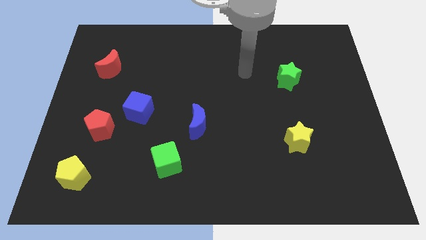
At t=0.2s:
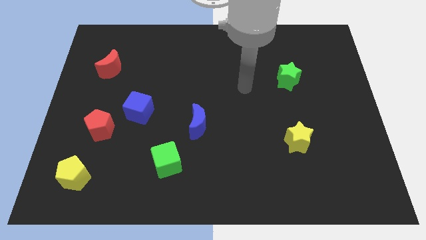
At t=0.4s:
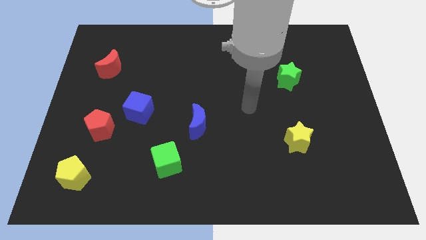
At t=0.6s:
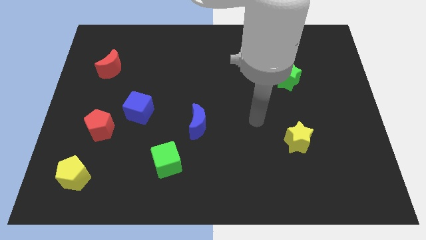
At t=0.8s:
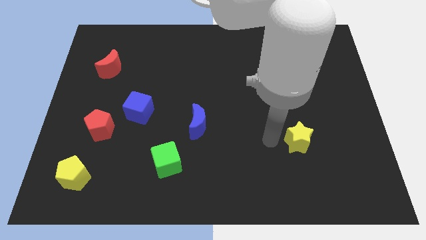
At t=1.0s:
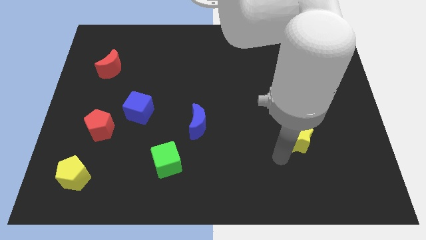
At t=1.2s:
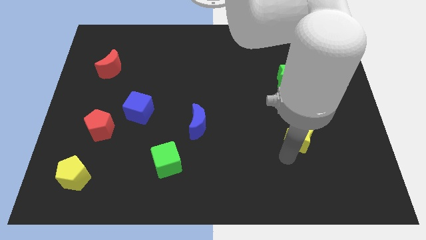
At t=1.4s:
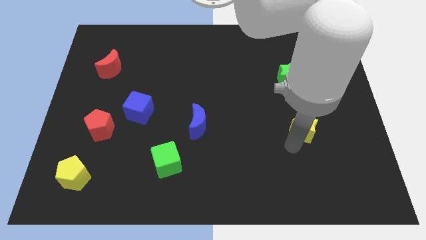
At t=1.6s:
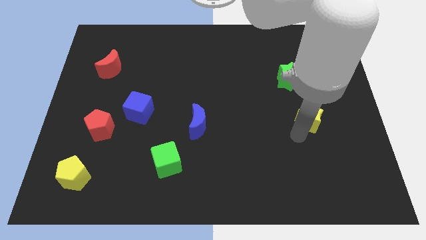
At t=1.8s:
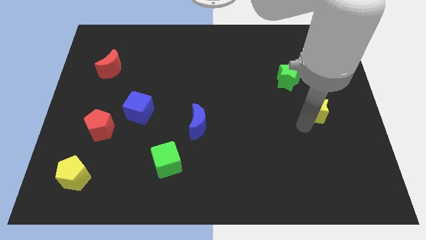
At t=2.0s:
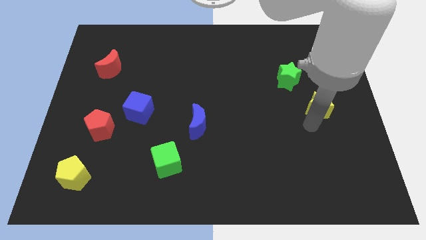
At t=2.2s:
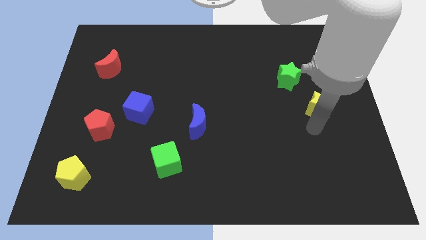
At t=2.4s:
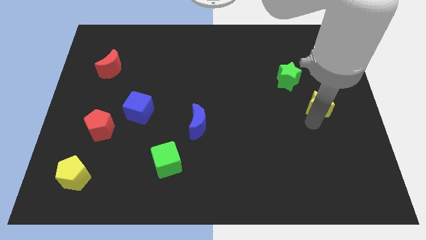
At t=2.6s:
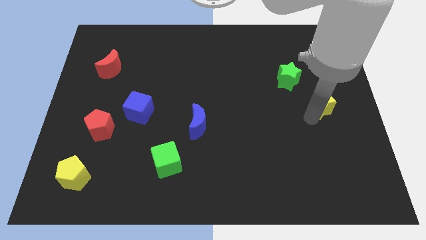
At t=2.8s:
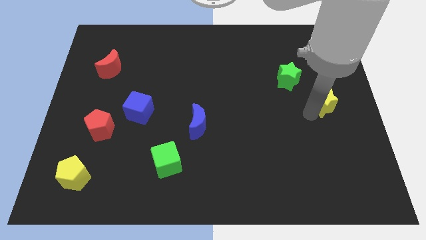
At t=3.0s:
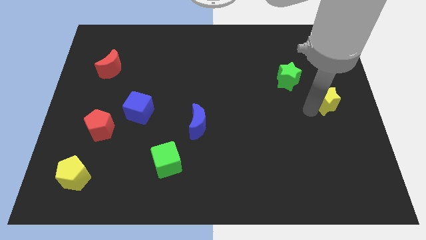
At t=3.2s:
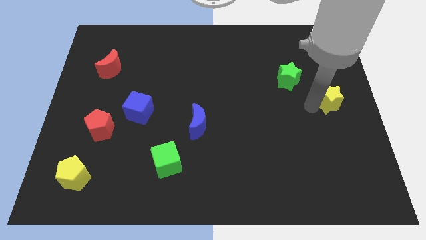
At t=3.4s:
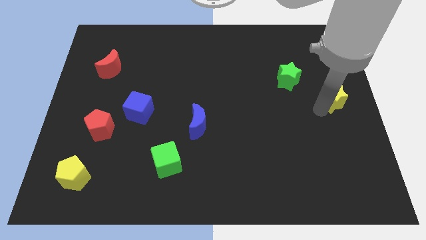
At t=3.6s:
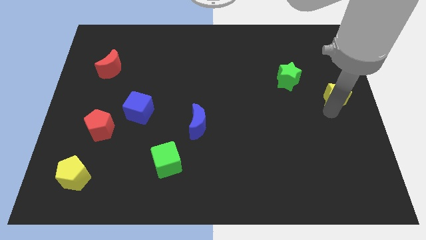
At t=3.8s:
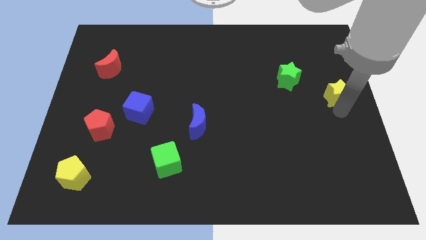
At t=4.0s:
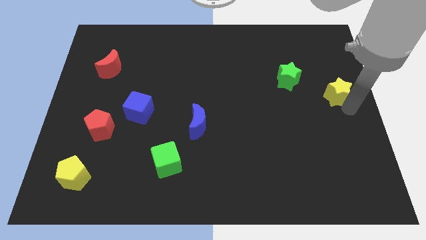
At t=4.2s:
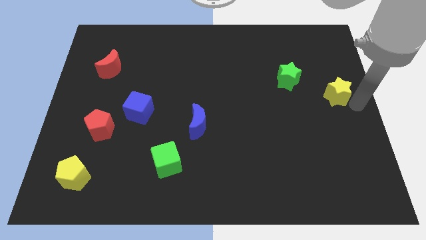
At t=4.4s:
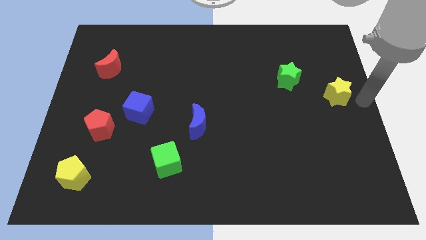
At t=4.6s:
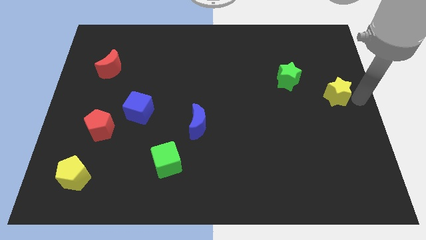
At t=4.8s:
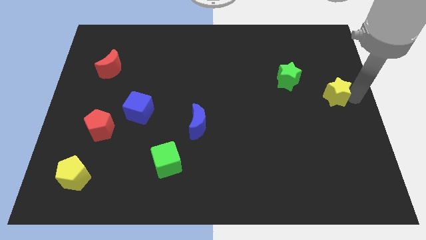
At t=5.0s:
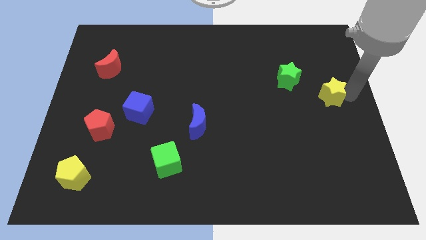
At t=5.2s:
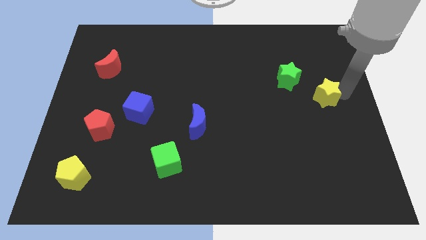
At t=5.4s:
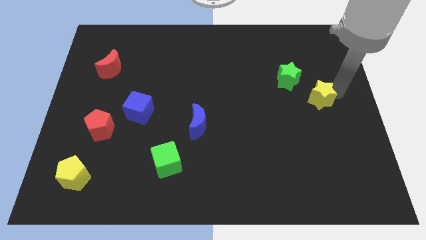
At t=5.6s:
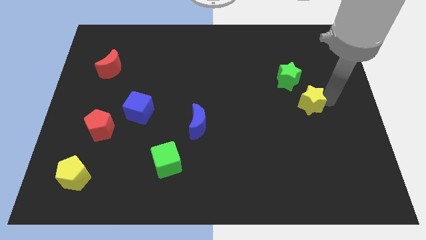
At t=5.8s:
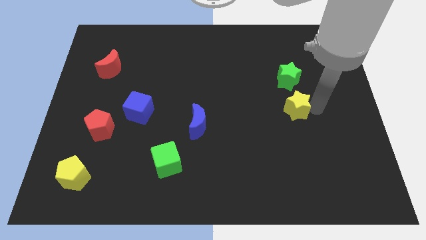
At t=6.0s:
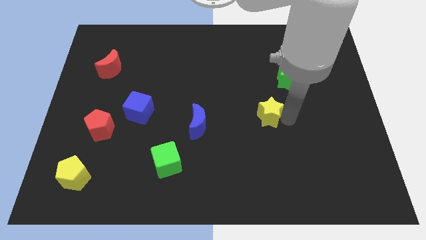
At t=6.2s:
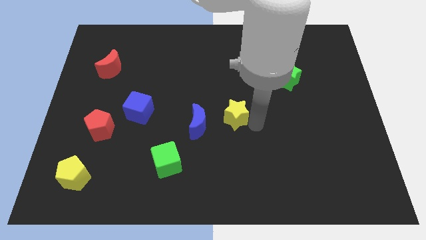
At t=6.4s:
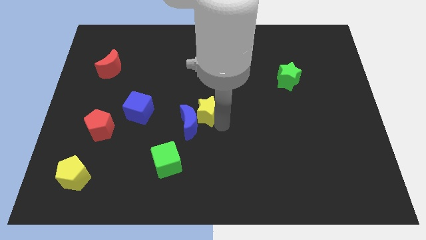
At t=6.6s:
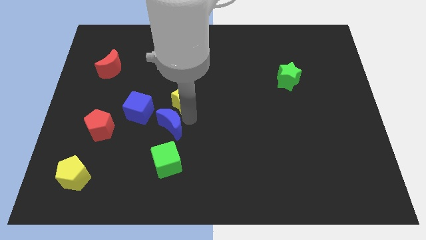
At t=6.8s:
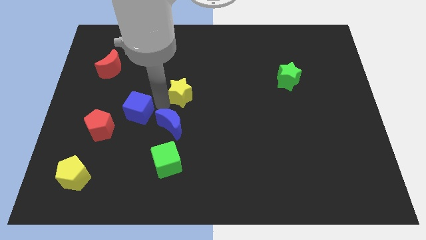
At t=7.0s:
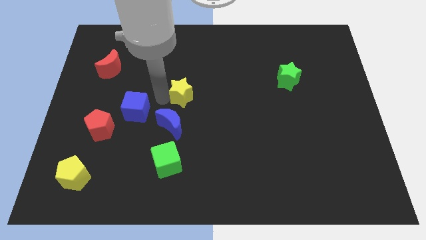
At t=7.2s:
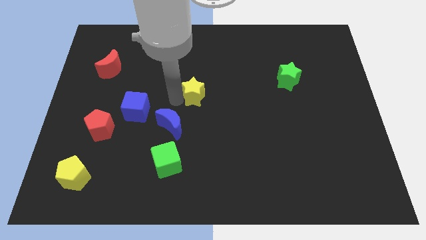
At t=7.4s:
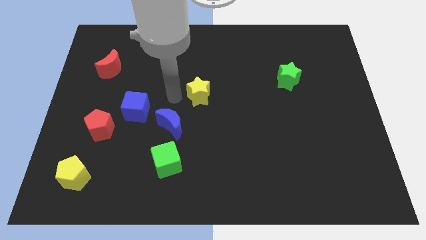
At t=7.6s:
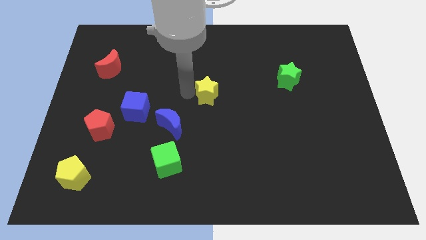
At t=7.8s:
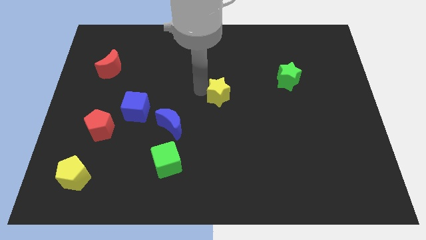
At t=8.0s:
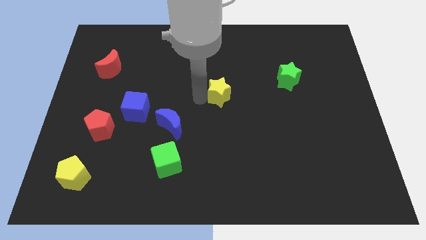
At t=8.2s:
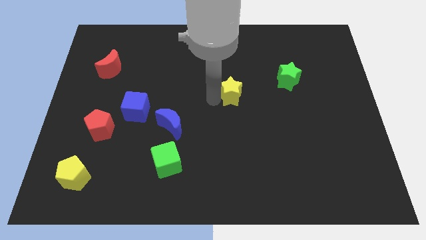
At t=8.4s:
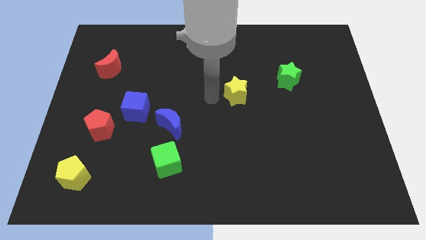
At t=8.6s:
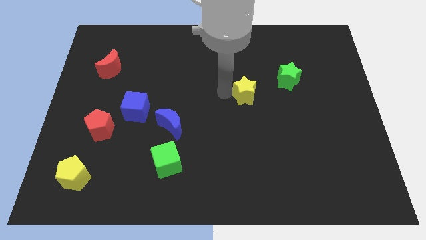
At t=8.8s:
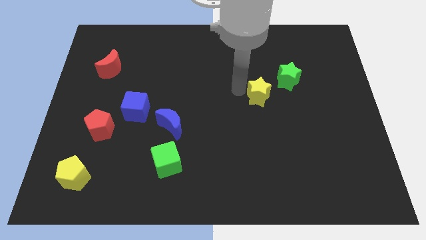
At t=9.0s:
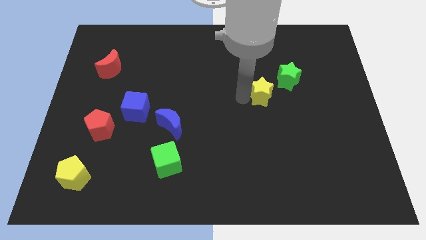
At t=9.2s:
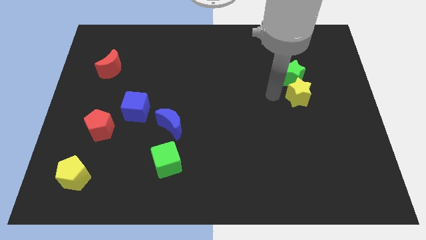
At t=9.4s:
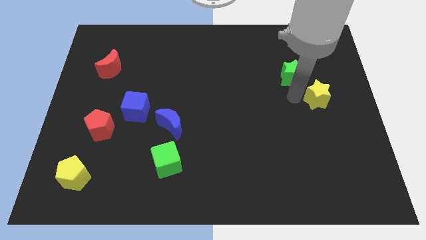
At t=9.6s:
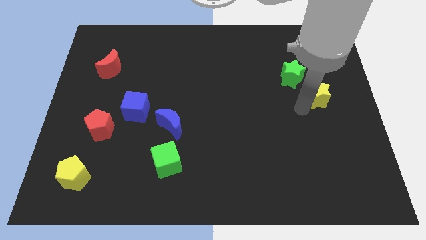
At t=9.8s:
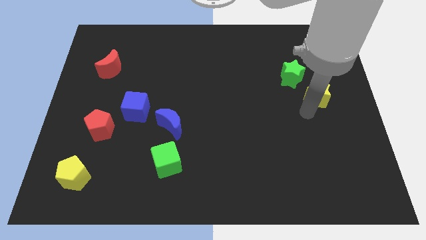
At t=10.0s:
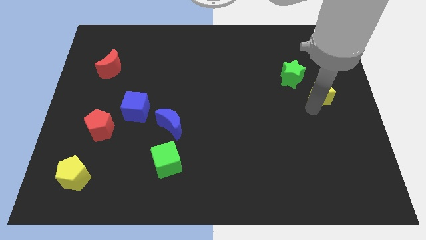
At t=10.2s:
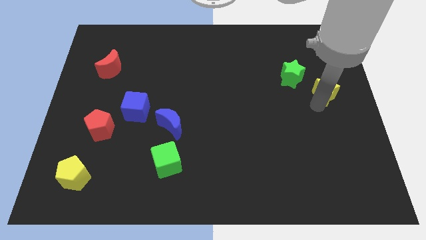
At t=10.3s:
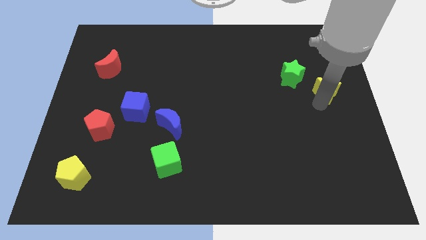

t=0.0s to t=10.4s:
push the yellow star right of the green star

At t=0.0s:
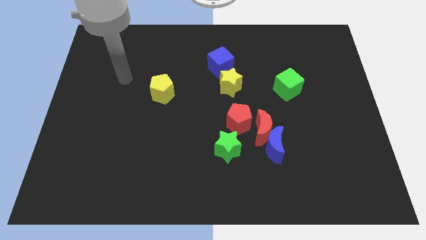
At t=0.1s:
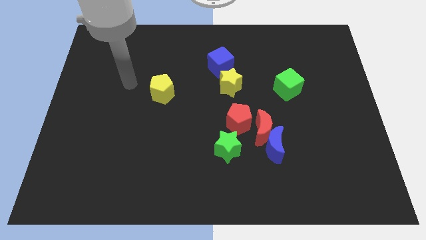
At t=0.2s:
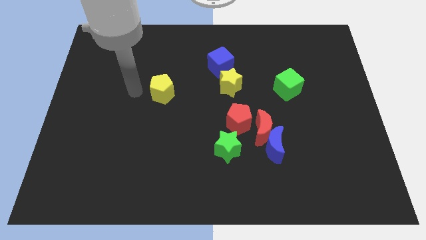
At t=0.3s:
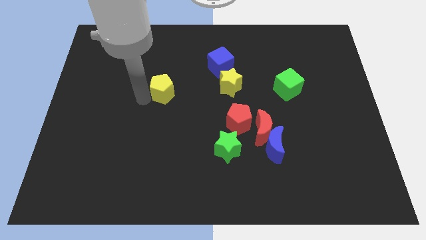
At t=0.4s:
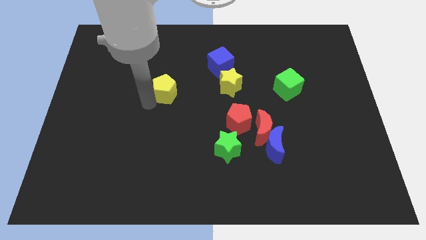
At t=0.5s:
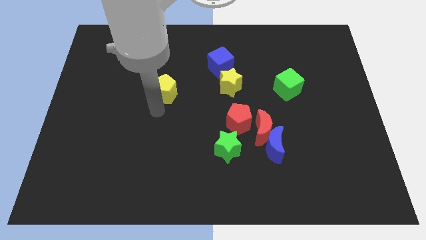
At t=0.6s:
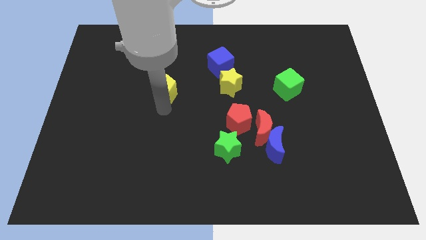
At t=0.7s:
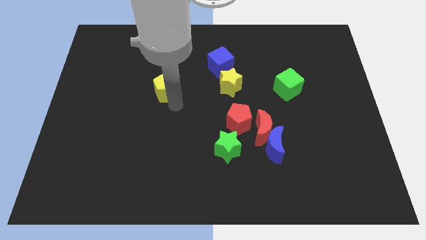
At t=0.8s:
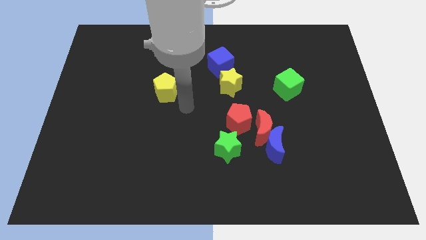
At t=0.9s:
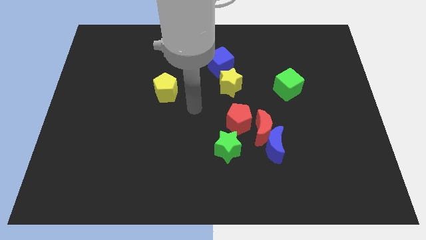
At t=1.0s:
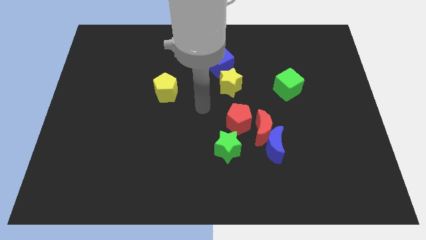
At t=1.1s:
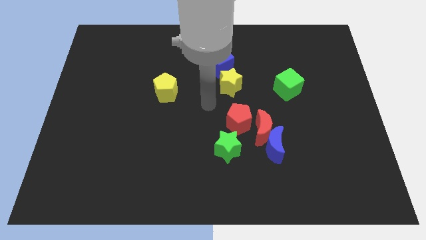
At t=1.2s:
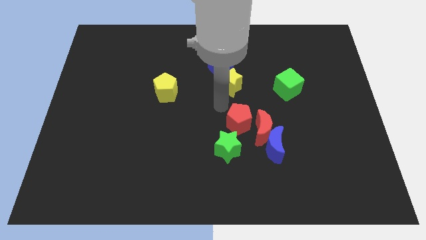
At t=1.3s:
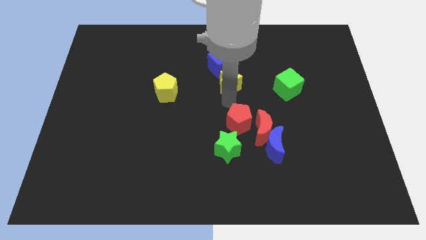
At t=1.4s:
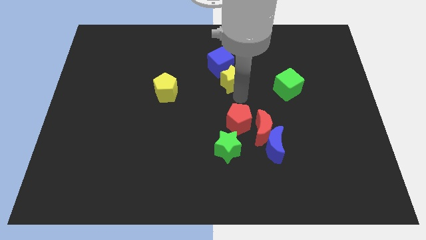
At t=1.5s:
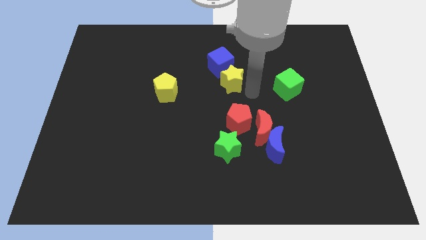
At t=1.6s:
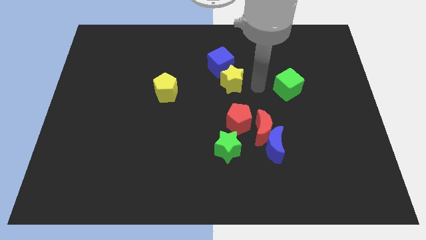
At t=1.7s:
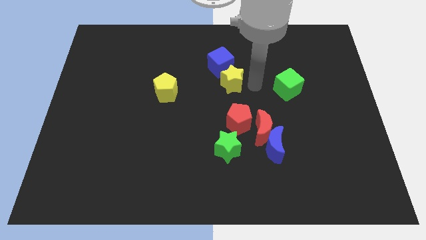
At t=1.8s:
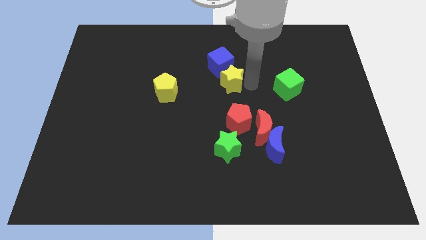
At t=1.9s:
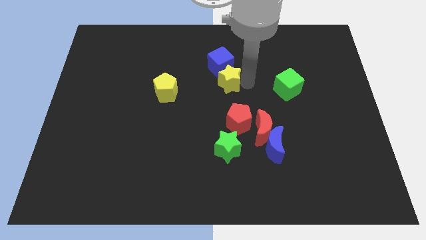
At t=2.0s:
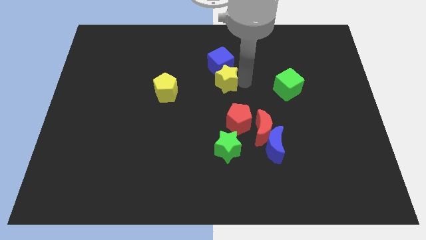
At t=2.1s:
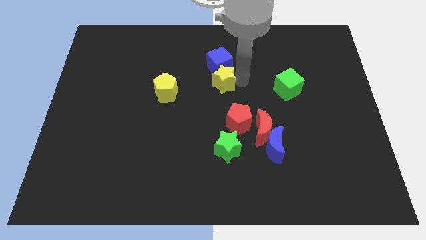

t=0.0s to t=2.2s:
push the yellow star to the bottom left side of the blue cube

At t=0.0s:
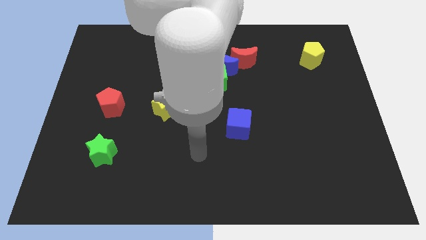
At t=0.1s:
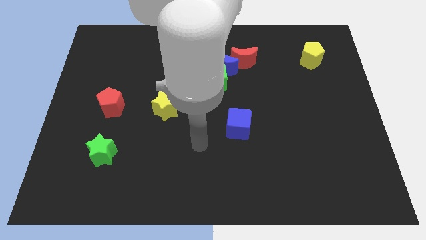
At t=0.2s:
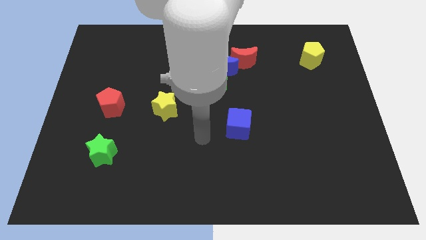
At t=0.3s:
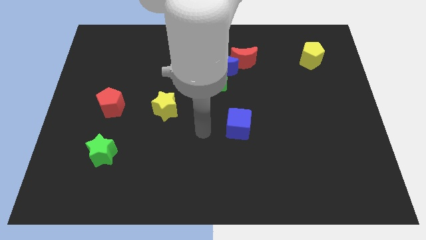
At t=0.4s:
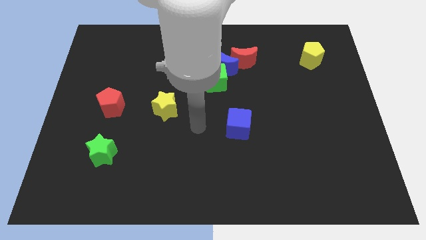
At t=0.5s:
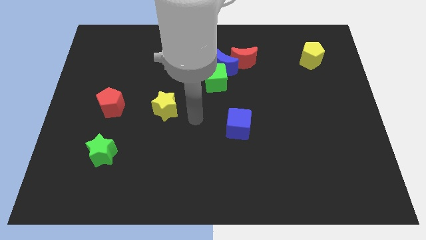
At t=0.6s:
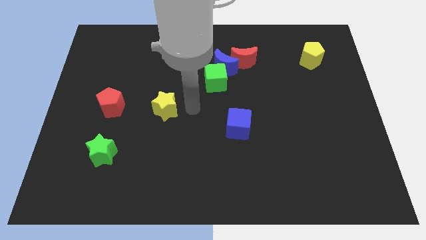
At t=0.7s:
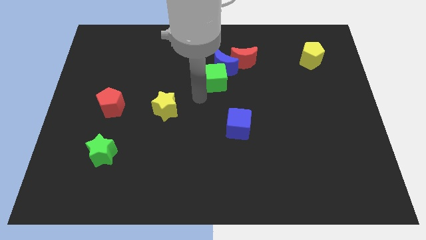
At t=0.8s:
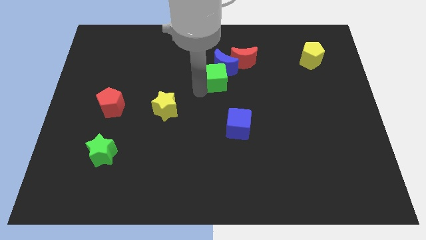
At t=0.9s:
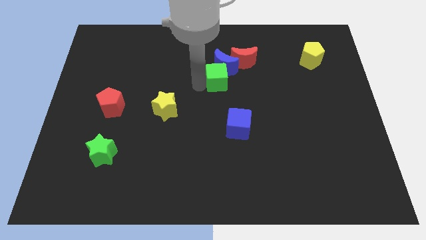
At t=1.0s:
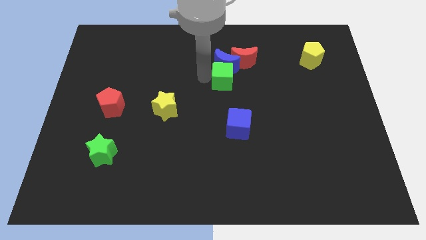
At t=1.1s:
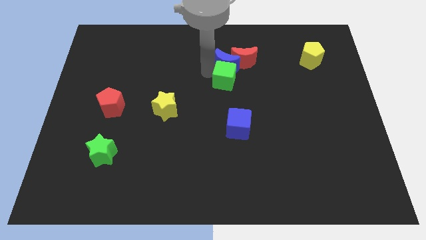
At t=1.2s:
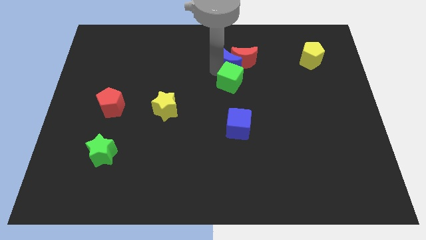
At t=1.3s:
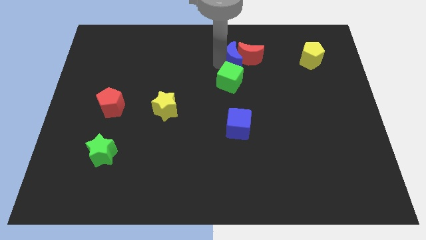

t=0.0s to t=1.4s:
put the red moon to the left side of the yellow pentagon
